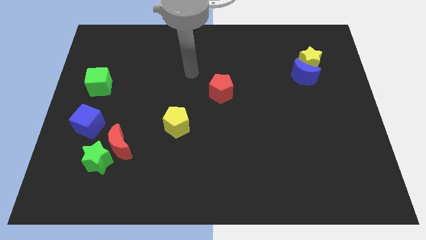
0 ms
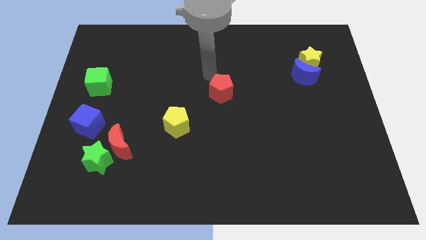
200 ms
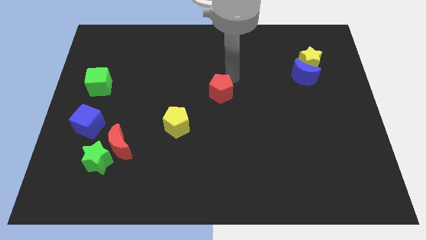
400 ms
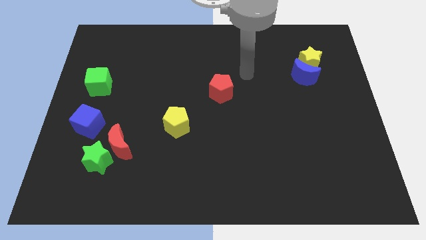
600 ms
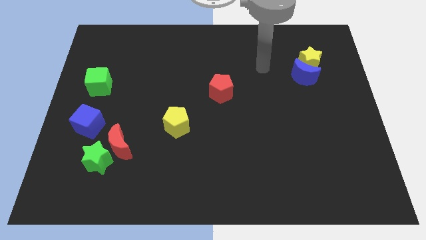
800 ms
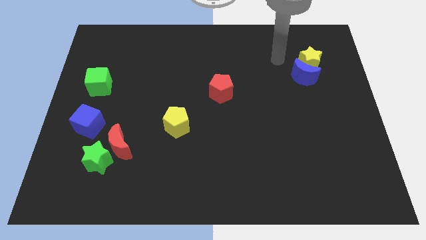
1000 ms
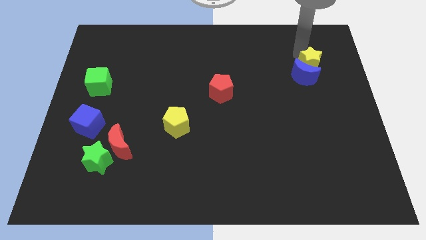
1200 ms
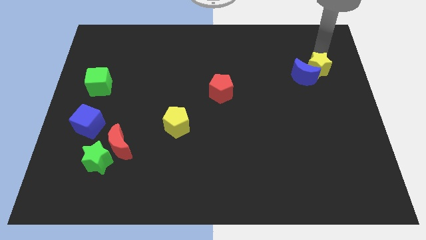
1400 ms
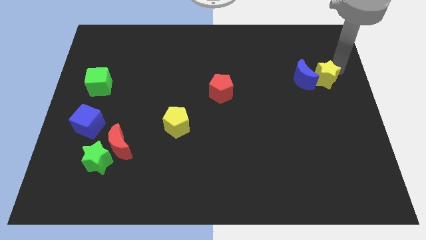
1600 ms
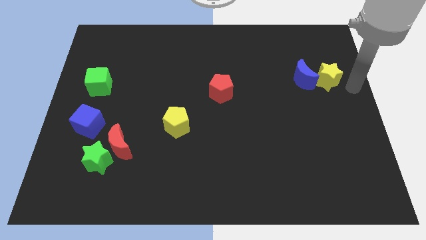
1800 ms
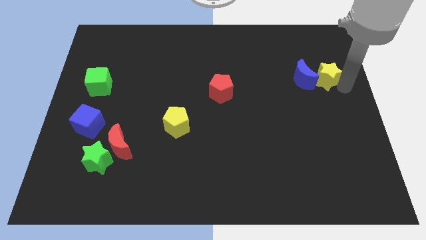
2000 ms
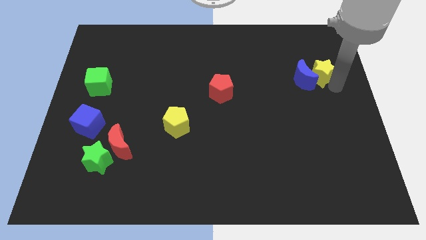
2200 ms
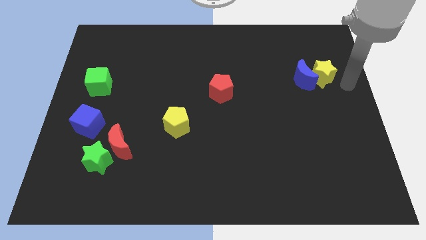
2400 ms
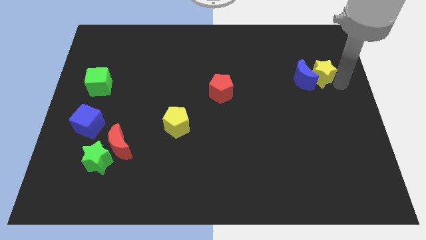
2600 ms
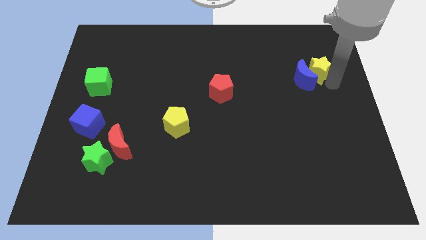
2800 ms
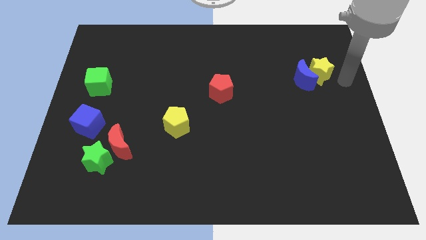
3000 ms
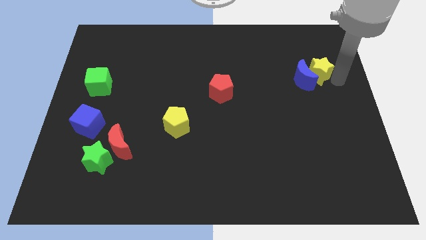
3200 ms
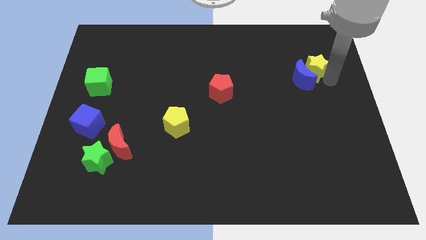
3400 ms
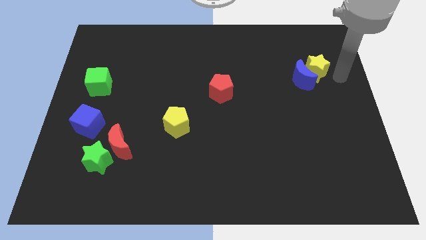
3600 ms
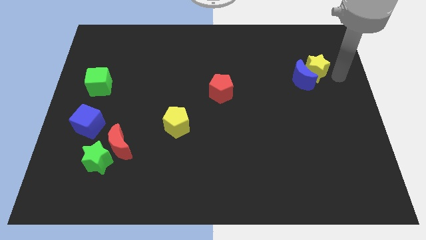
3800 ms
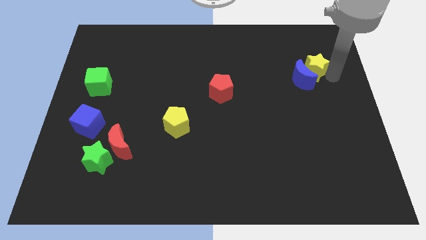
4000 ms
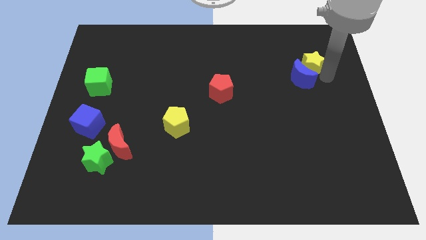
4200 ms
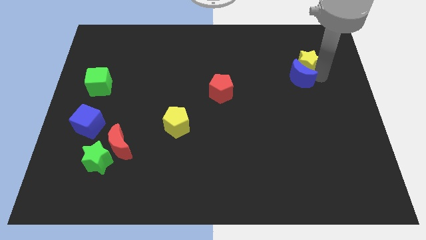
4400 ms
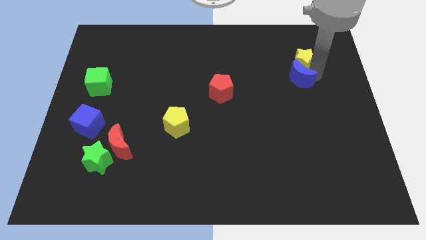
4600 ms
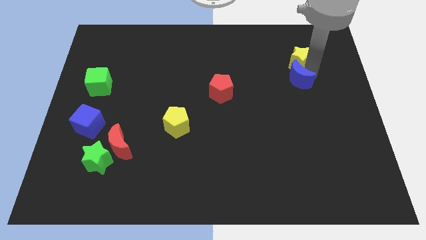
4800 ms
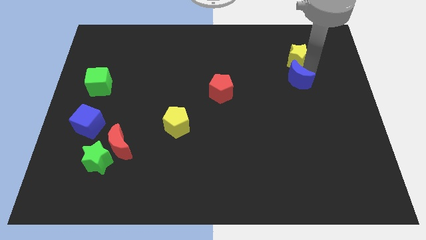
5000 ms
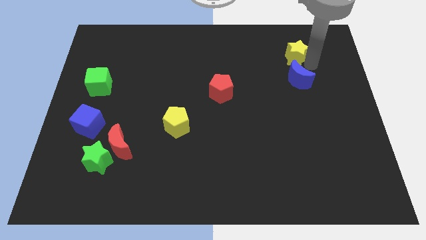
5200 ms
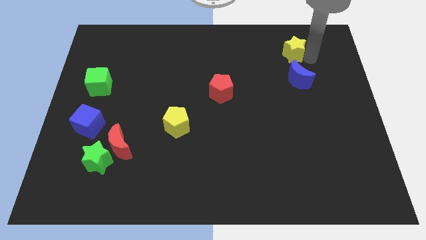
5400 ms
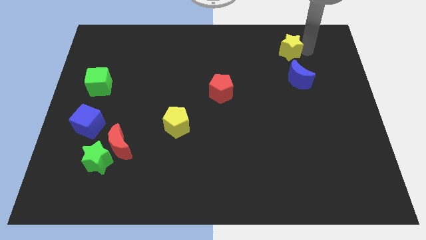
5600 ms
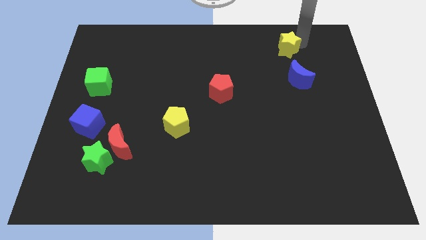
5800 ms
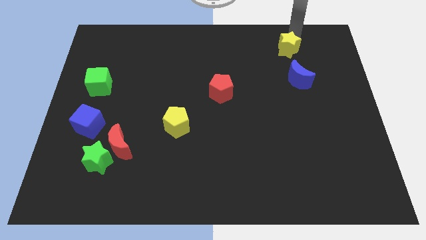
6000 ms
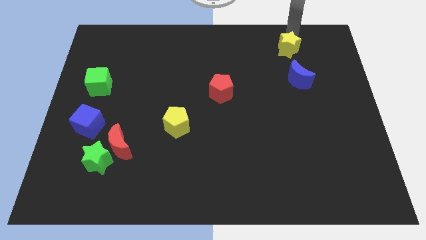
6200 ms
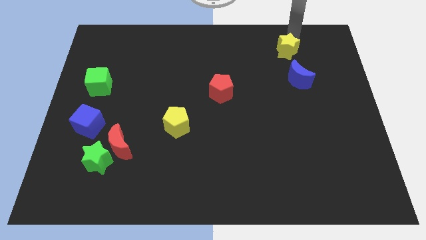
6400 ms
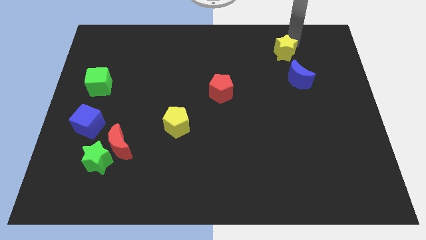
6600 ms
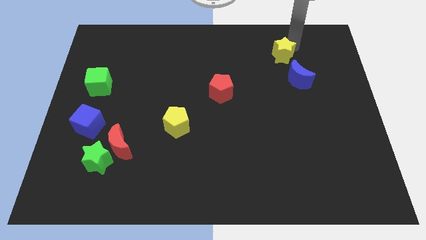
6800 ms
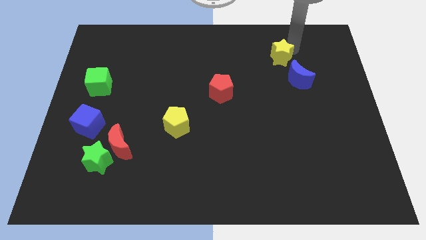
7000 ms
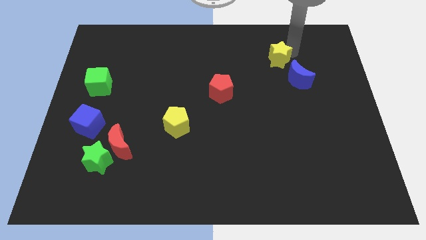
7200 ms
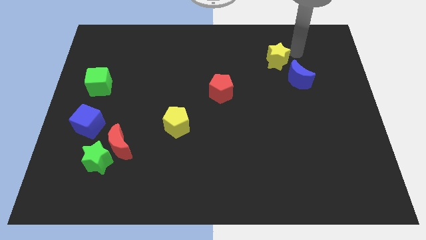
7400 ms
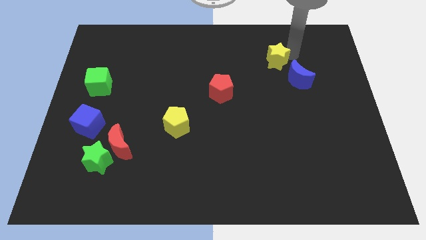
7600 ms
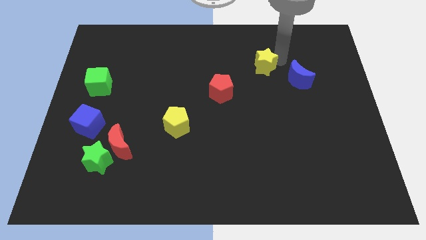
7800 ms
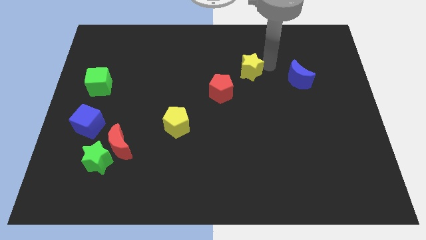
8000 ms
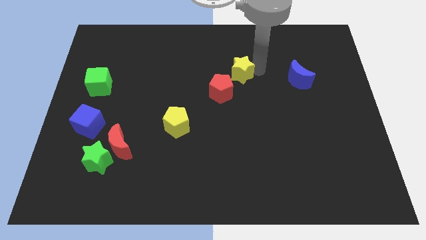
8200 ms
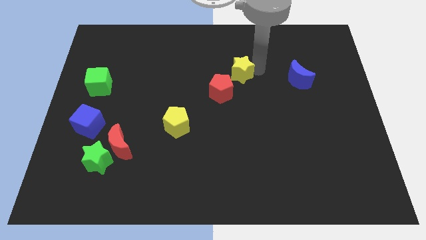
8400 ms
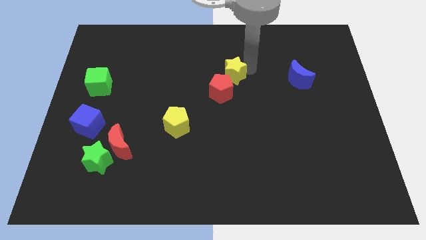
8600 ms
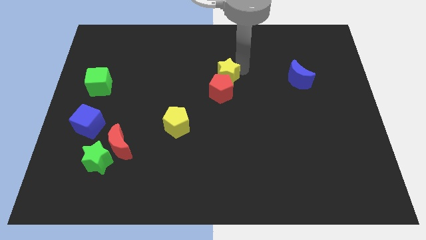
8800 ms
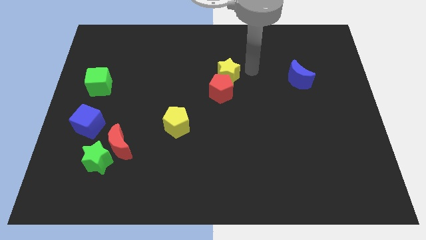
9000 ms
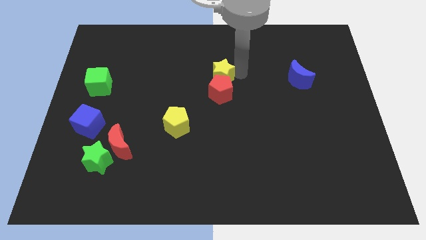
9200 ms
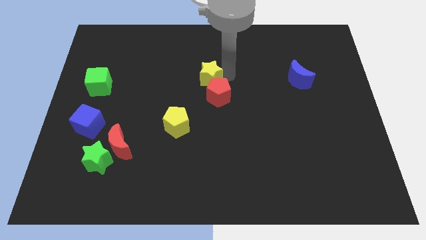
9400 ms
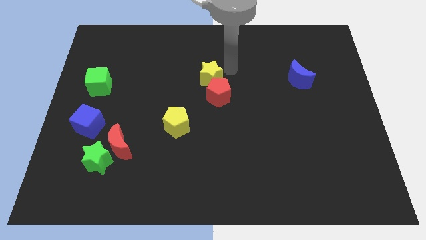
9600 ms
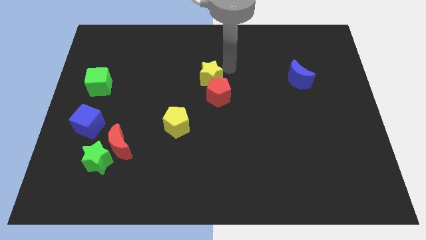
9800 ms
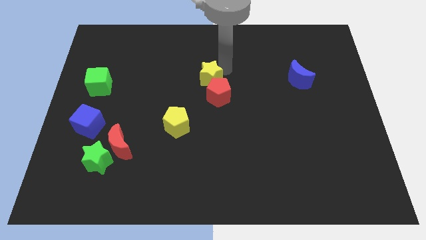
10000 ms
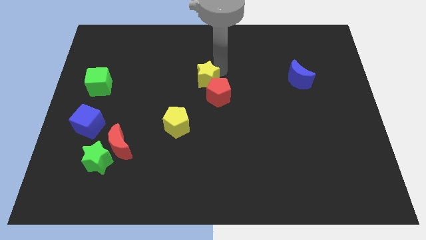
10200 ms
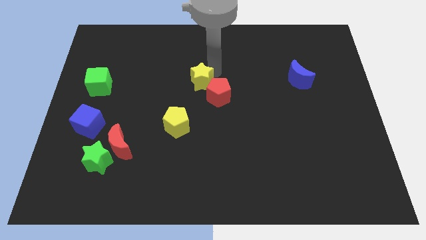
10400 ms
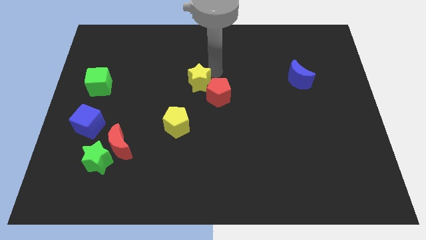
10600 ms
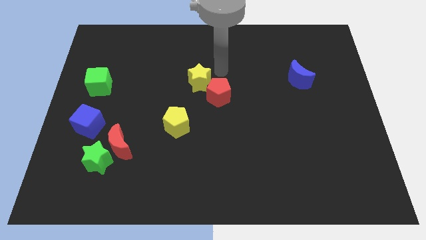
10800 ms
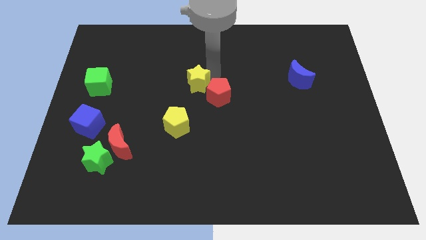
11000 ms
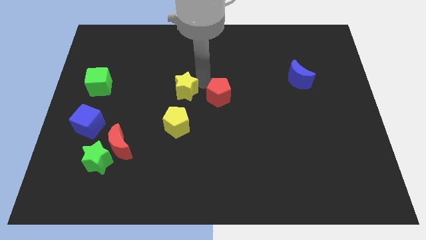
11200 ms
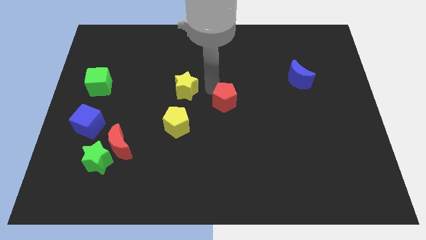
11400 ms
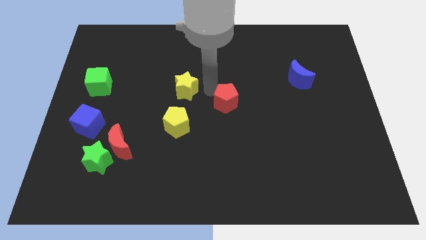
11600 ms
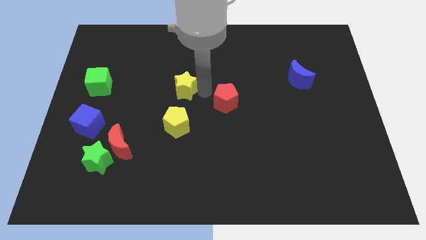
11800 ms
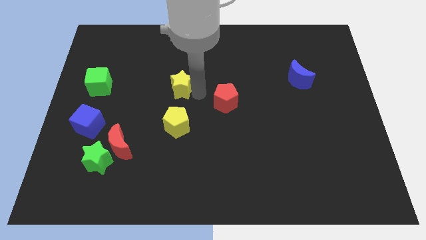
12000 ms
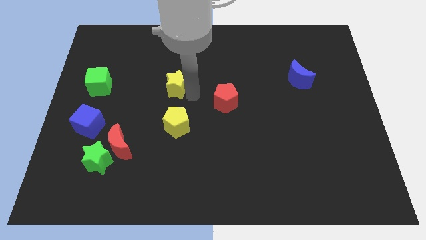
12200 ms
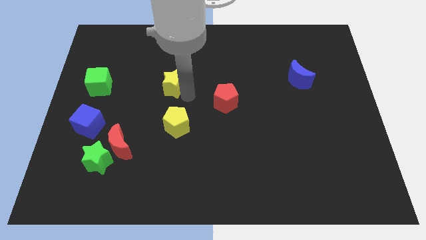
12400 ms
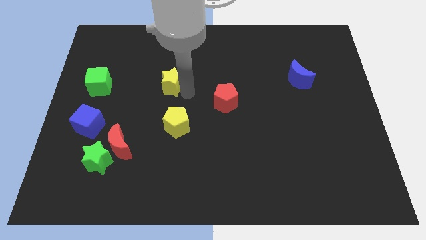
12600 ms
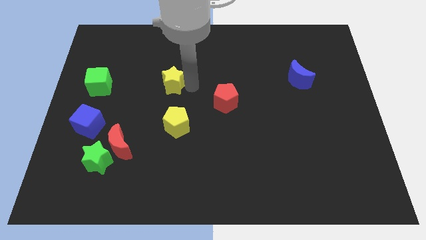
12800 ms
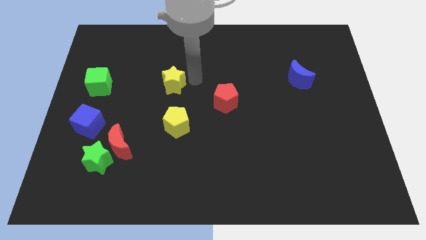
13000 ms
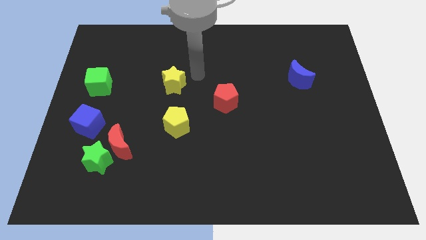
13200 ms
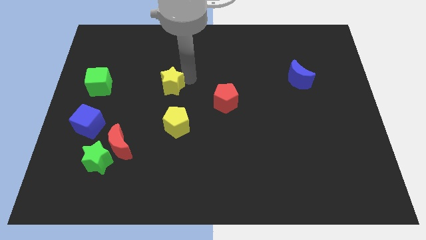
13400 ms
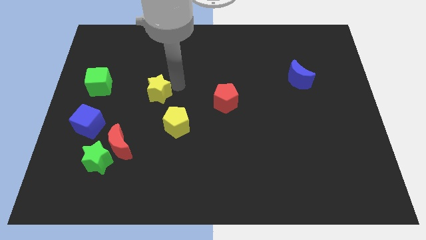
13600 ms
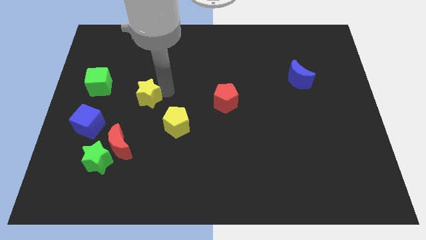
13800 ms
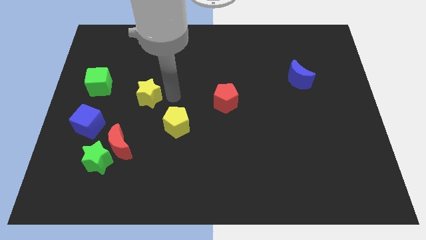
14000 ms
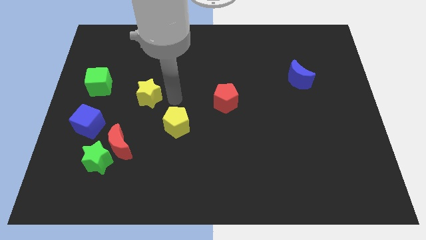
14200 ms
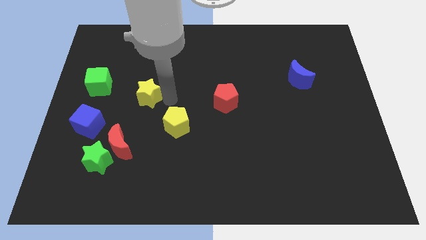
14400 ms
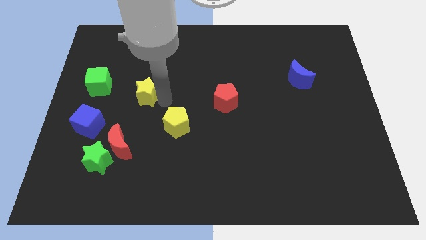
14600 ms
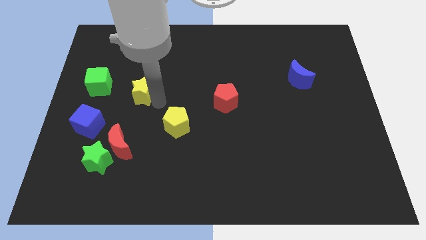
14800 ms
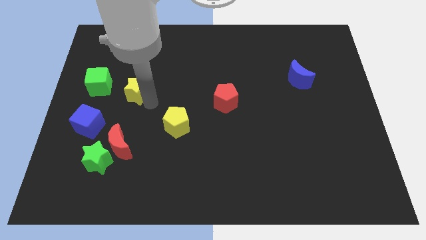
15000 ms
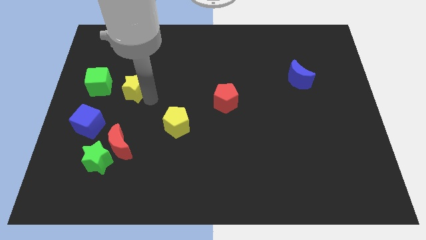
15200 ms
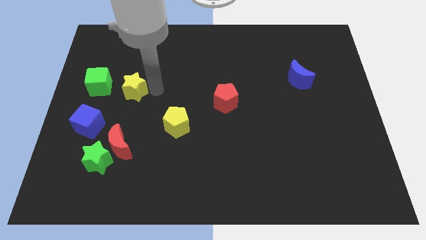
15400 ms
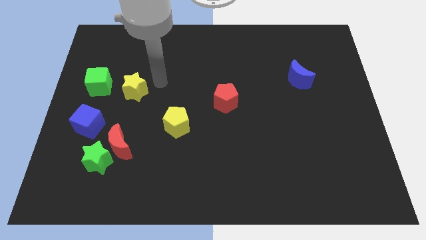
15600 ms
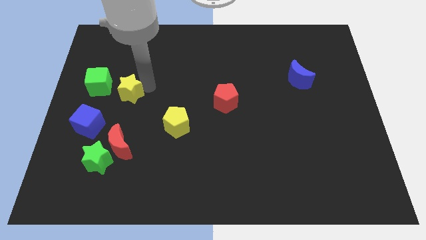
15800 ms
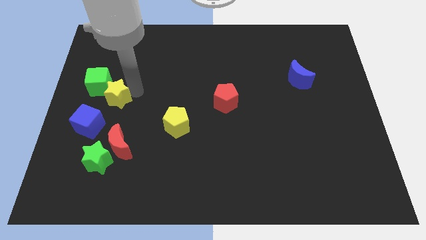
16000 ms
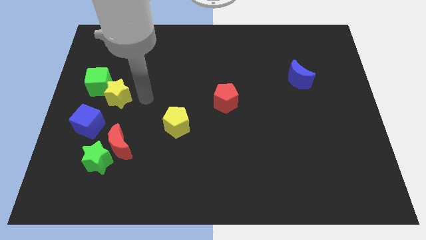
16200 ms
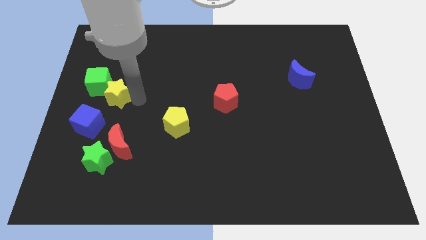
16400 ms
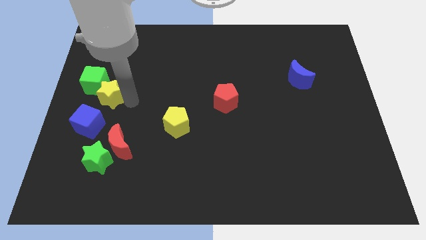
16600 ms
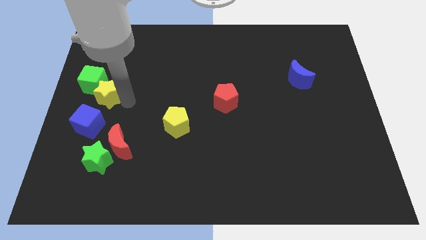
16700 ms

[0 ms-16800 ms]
push the yellow star to the left side
